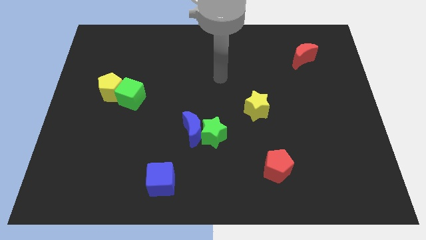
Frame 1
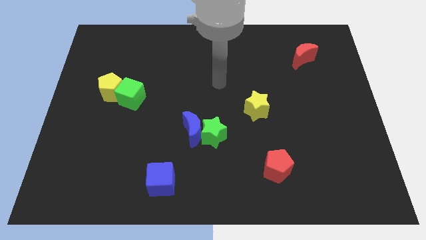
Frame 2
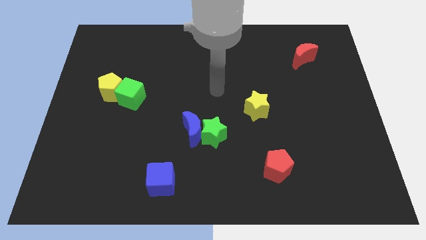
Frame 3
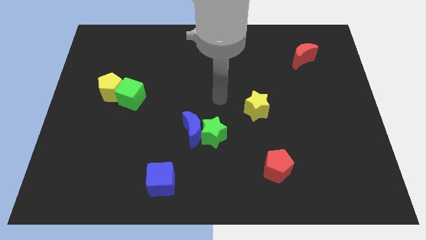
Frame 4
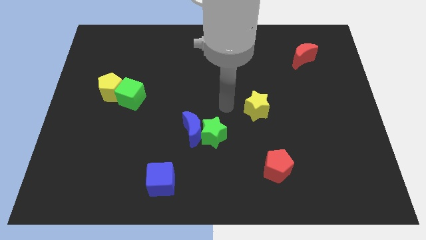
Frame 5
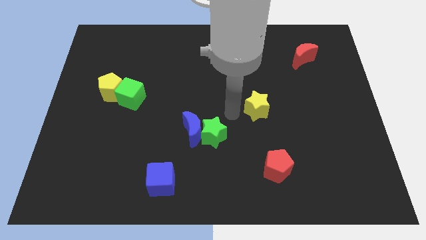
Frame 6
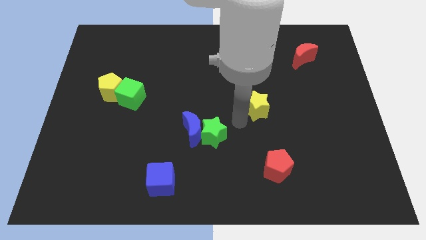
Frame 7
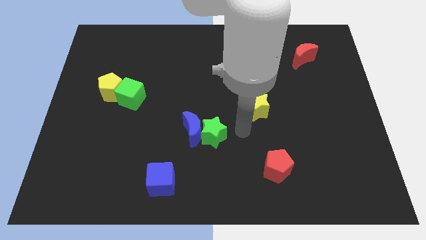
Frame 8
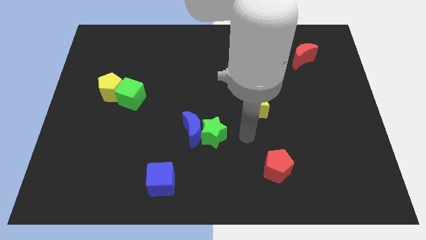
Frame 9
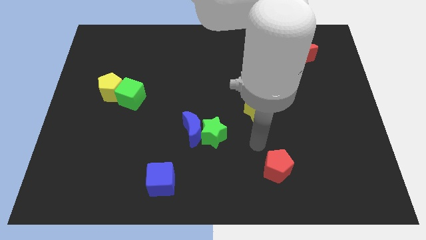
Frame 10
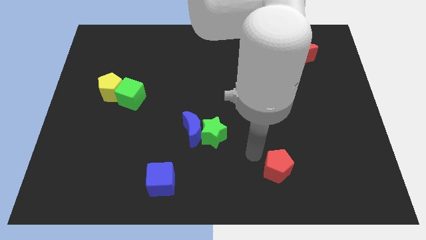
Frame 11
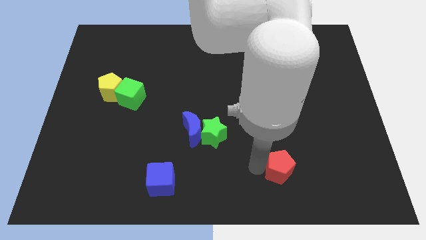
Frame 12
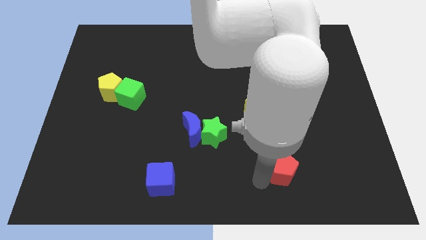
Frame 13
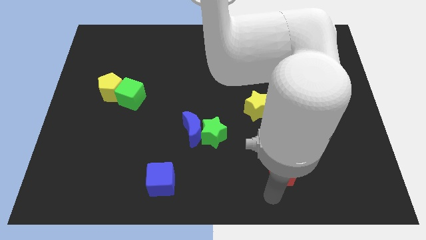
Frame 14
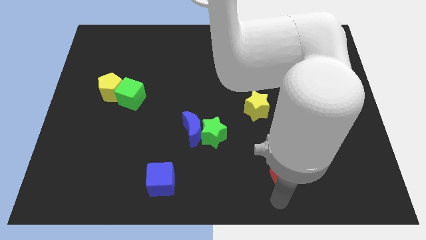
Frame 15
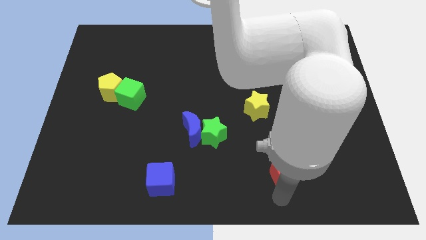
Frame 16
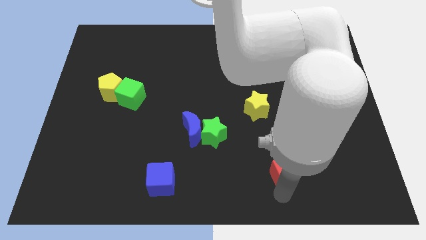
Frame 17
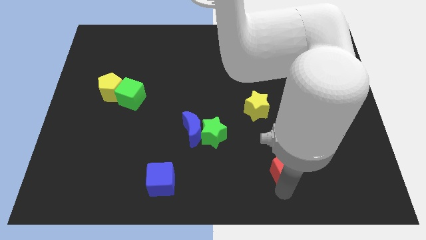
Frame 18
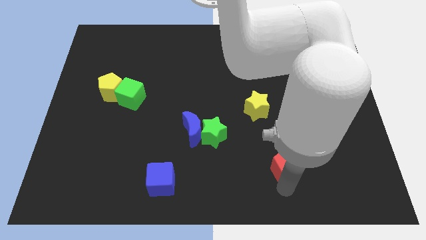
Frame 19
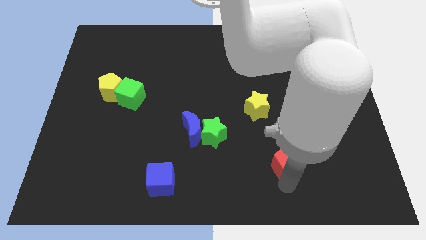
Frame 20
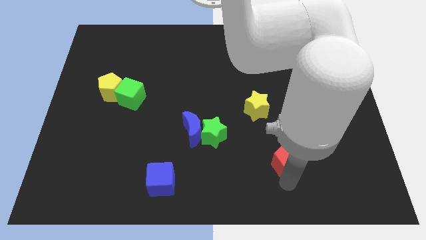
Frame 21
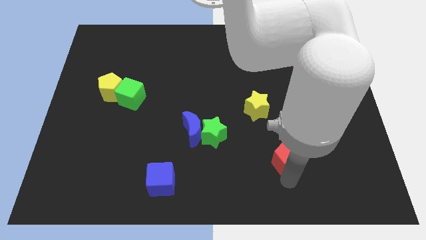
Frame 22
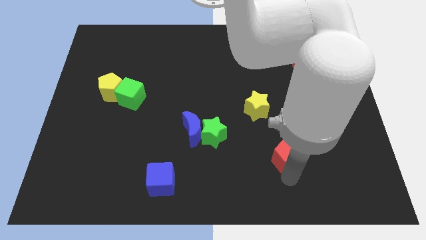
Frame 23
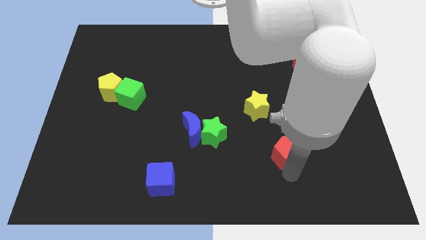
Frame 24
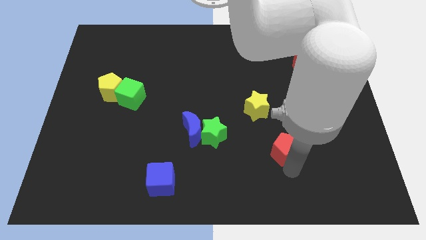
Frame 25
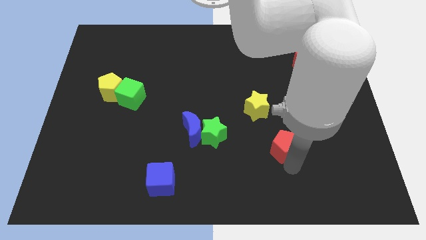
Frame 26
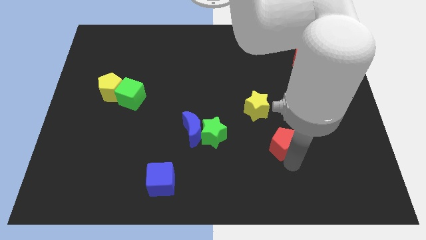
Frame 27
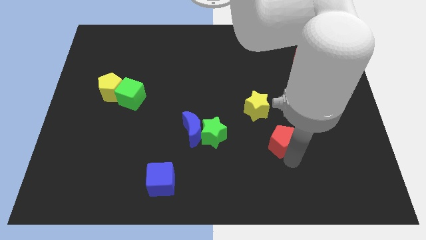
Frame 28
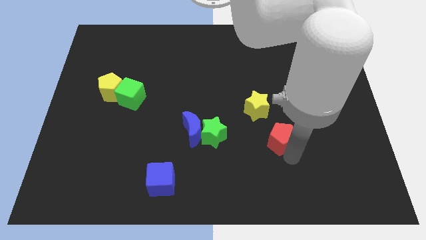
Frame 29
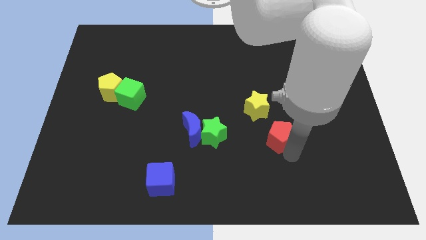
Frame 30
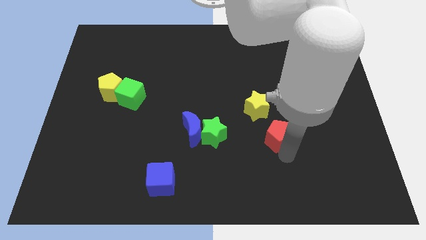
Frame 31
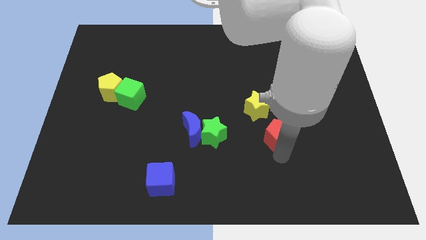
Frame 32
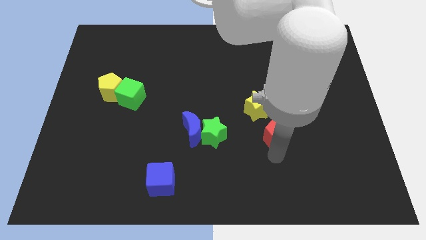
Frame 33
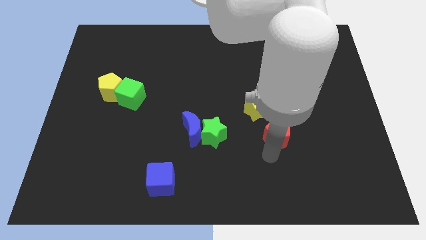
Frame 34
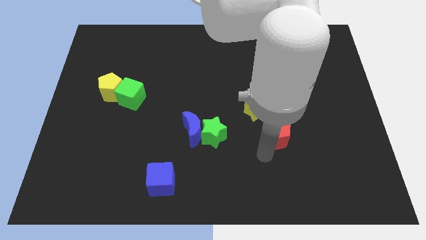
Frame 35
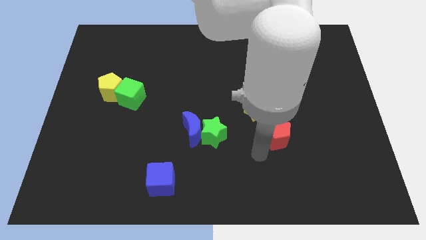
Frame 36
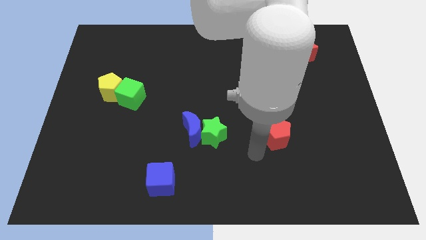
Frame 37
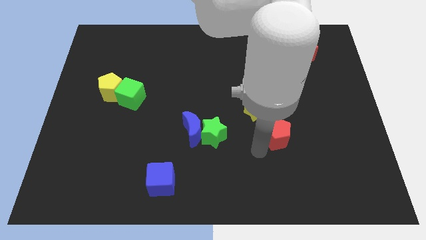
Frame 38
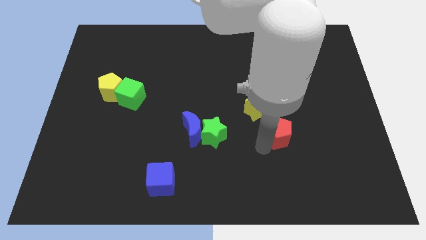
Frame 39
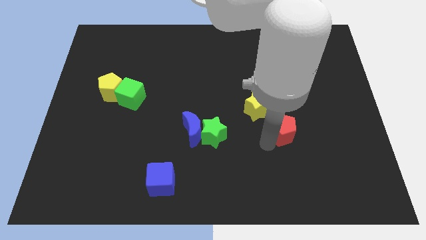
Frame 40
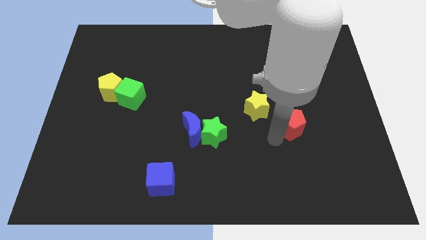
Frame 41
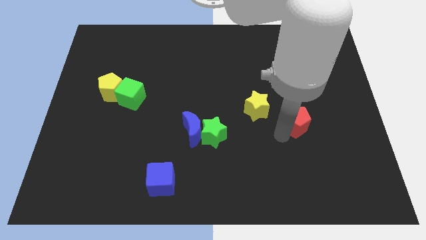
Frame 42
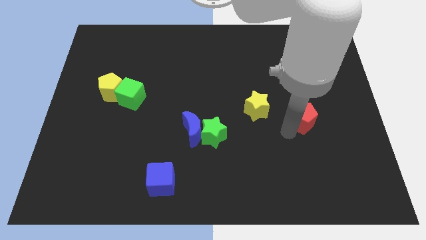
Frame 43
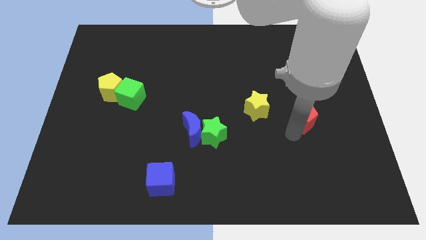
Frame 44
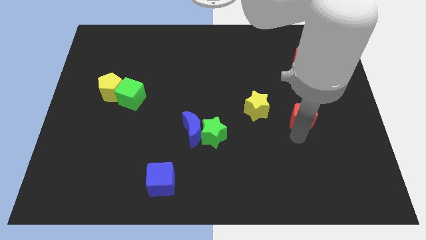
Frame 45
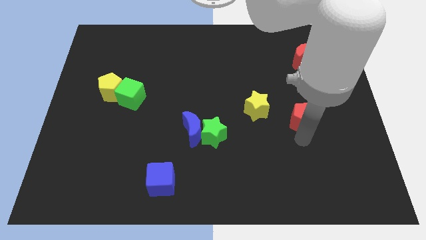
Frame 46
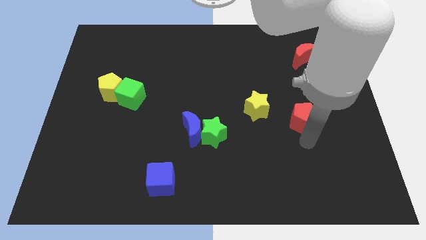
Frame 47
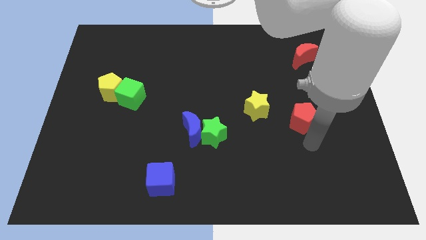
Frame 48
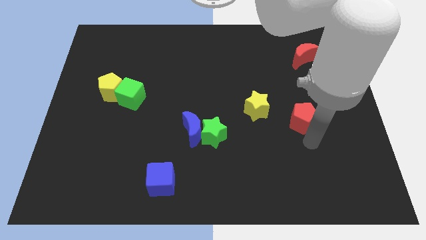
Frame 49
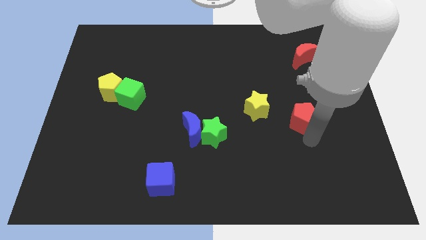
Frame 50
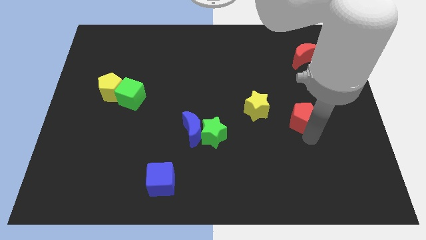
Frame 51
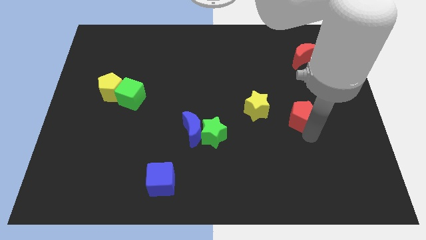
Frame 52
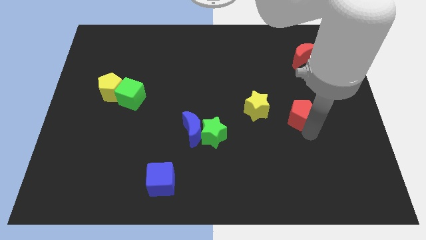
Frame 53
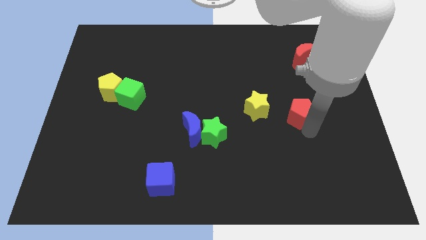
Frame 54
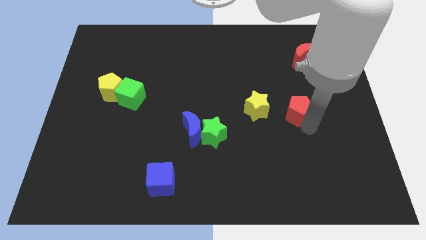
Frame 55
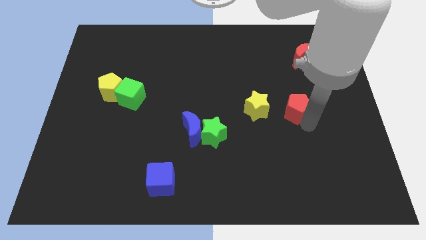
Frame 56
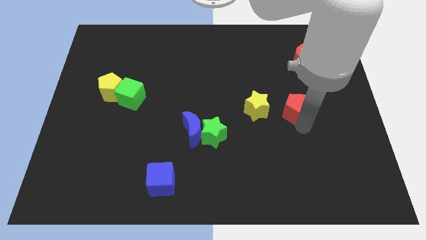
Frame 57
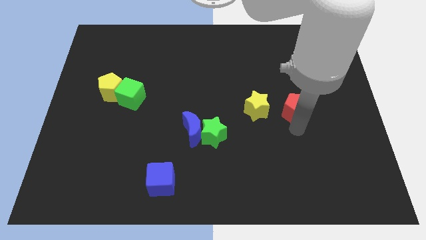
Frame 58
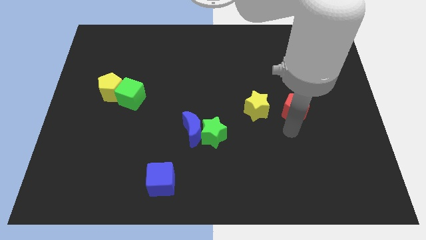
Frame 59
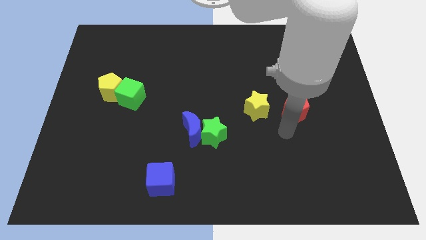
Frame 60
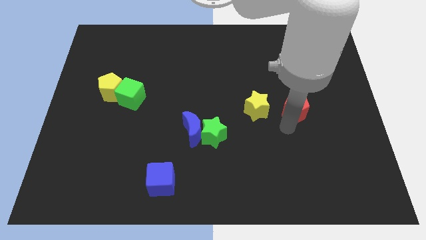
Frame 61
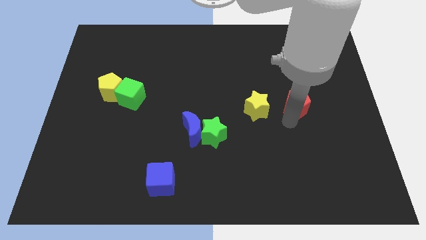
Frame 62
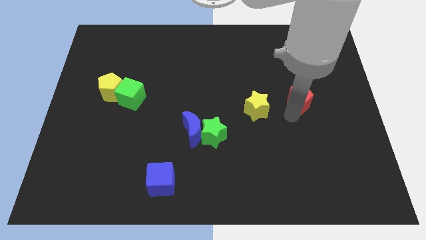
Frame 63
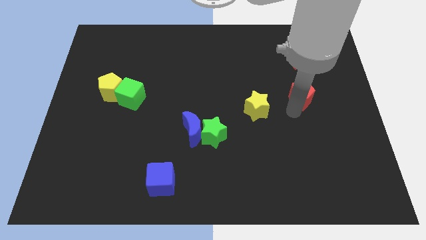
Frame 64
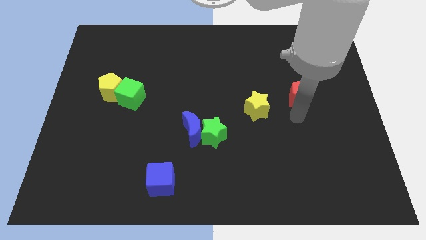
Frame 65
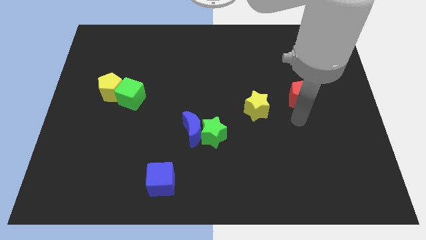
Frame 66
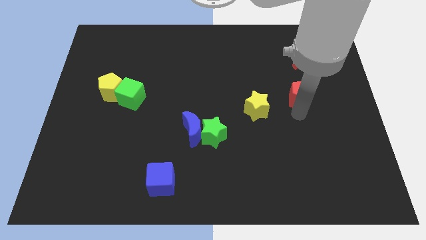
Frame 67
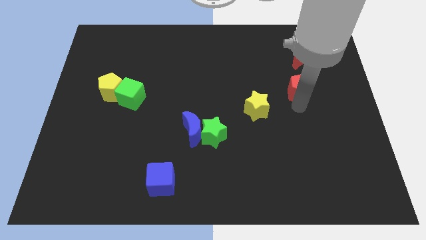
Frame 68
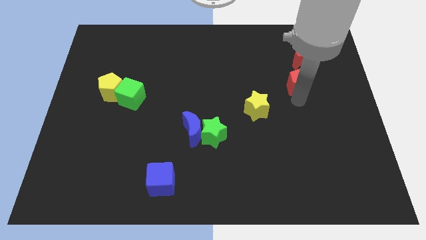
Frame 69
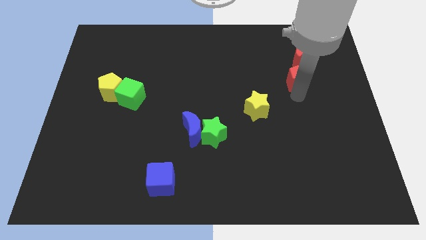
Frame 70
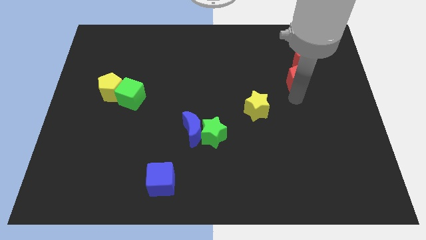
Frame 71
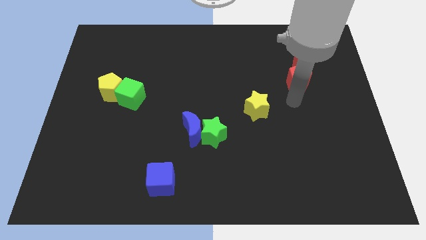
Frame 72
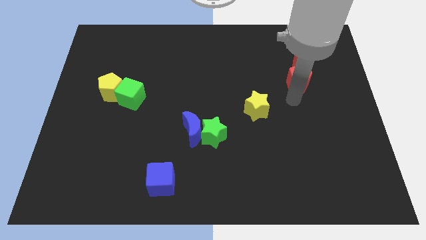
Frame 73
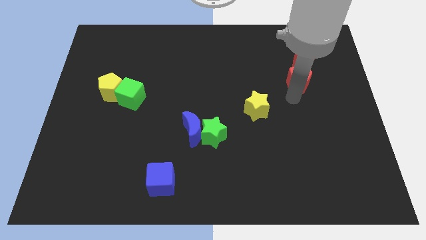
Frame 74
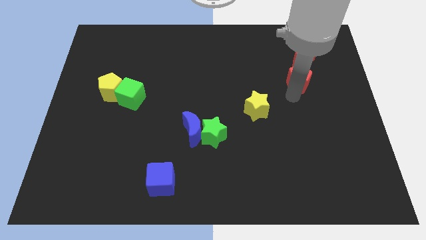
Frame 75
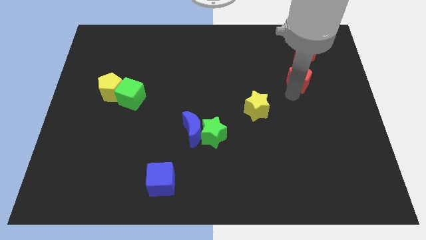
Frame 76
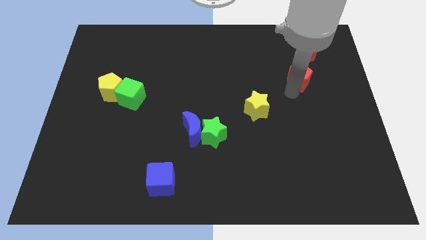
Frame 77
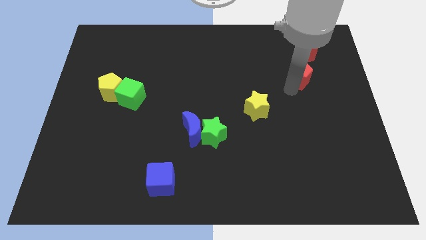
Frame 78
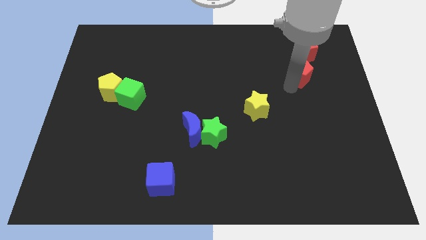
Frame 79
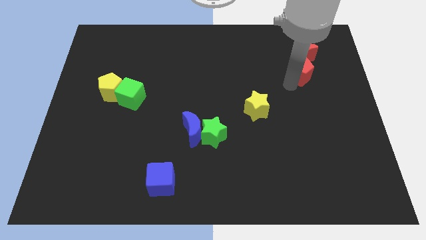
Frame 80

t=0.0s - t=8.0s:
push the red pentagon next to the red moon
